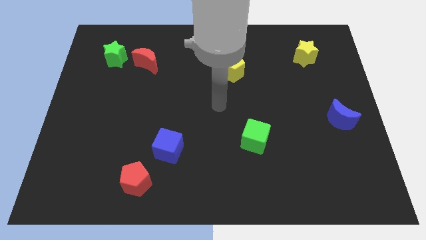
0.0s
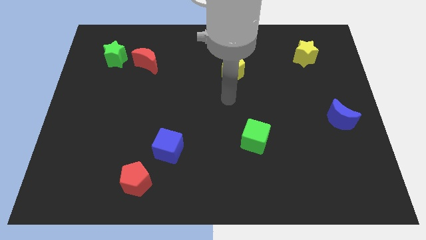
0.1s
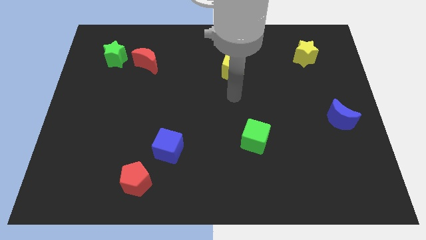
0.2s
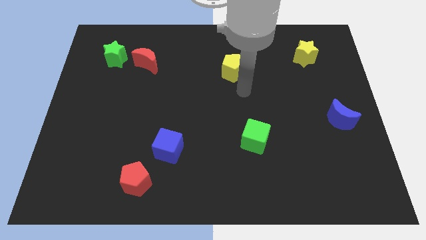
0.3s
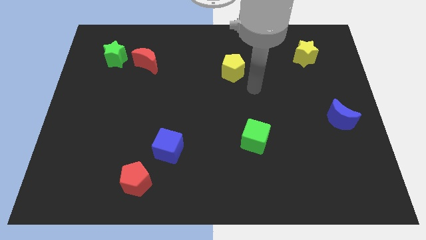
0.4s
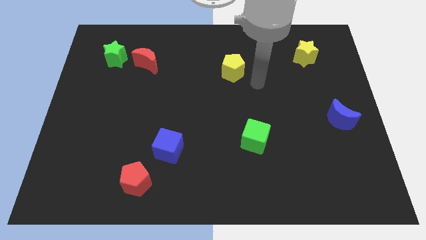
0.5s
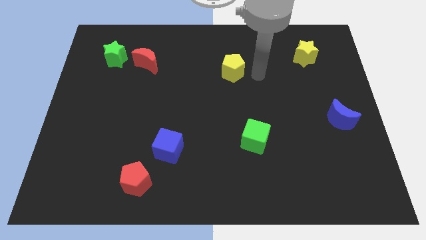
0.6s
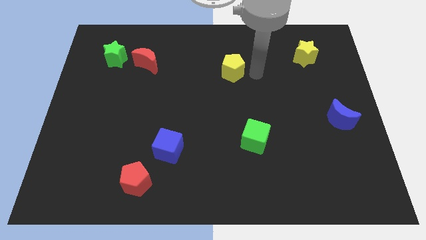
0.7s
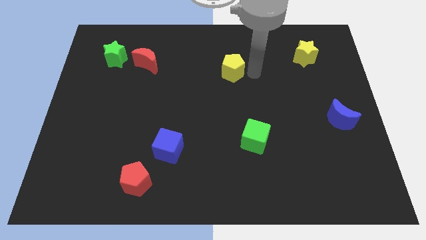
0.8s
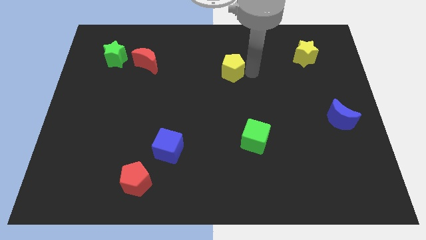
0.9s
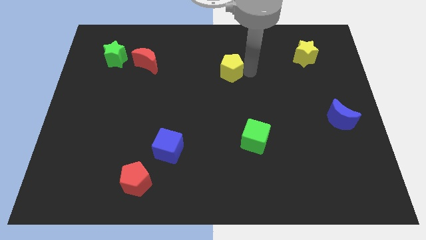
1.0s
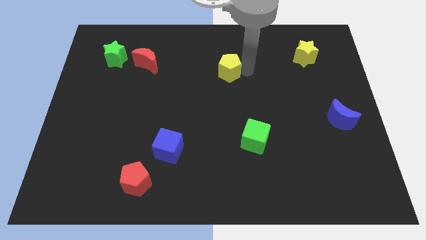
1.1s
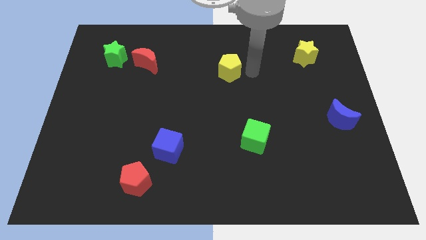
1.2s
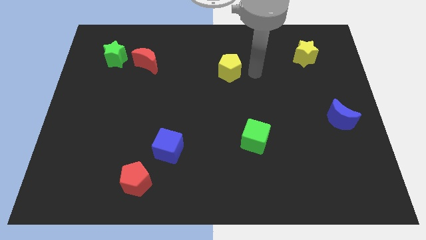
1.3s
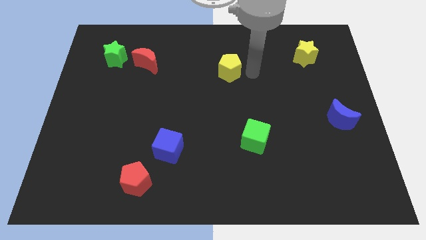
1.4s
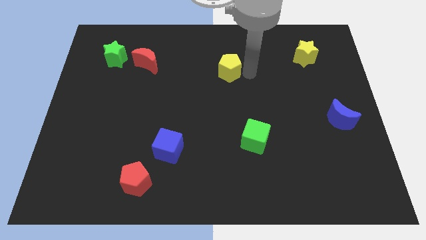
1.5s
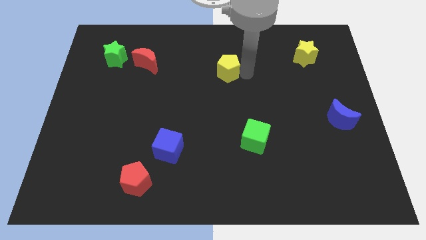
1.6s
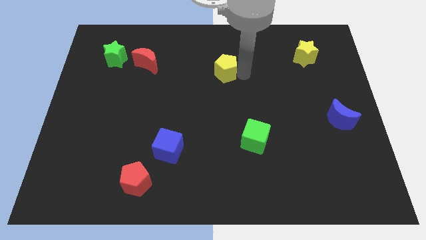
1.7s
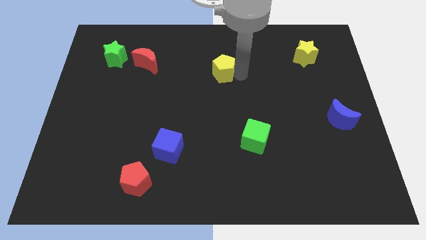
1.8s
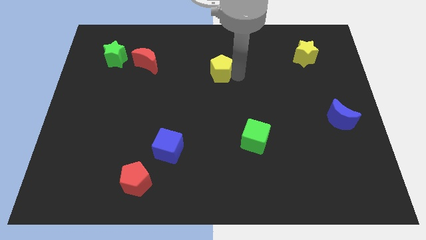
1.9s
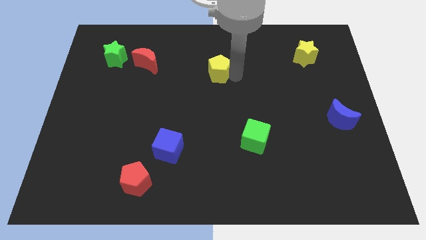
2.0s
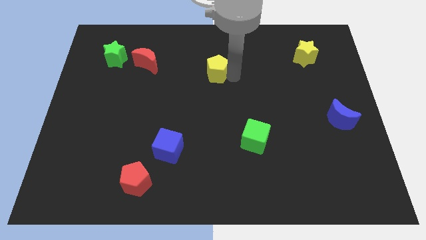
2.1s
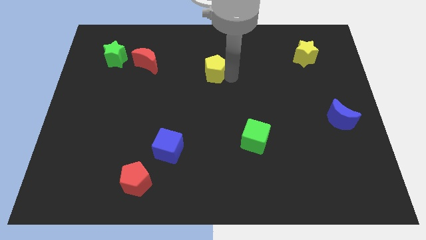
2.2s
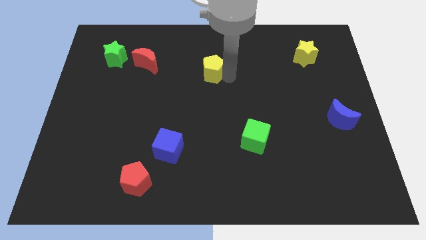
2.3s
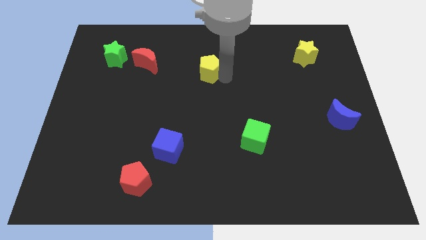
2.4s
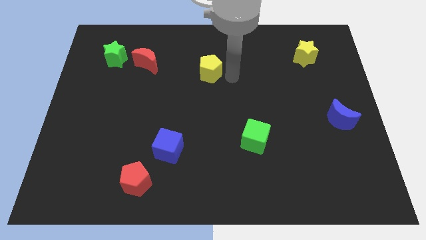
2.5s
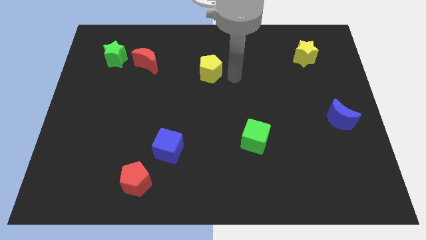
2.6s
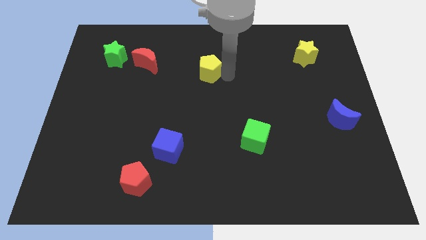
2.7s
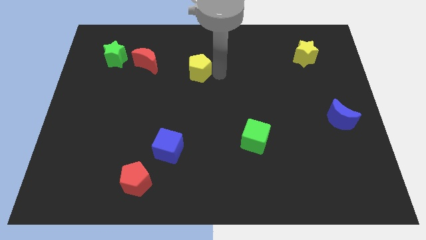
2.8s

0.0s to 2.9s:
slide the yellow pentagon to the left a little bit

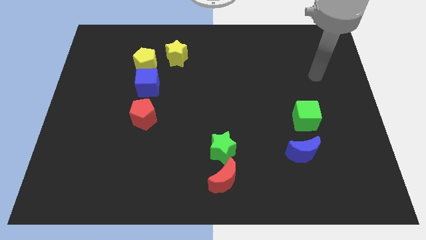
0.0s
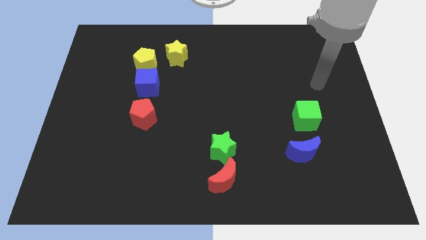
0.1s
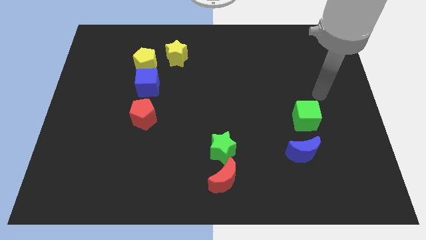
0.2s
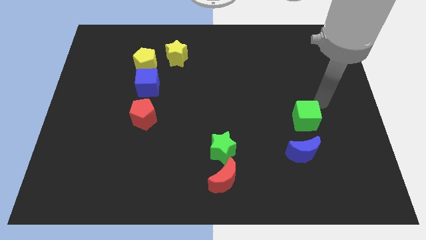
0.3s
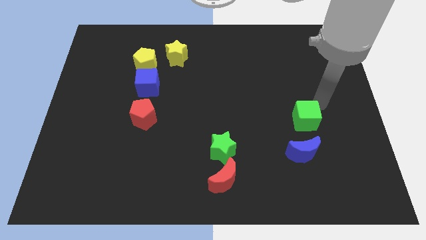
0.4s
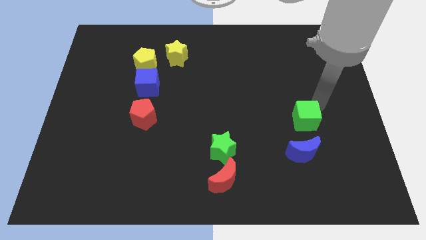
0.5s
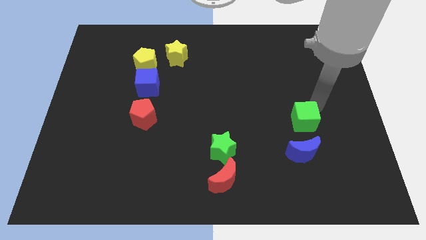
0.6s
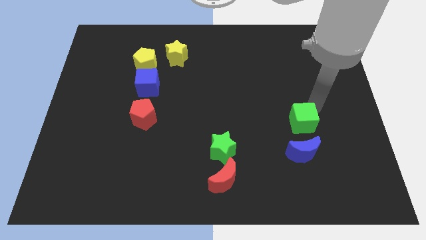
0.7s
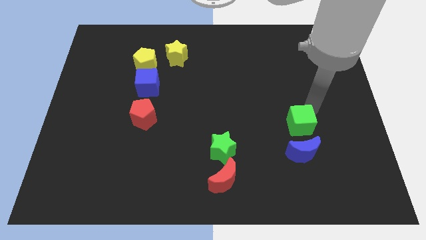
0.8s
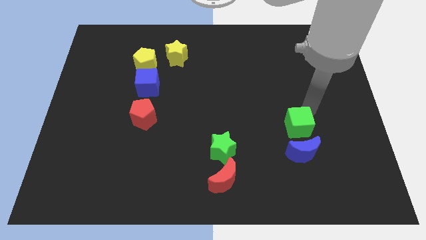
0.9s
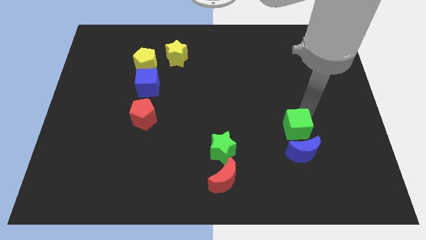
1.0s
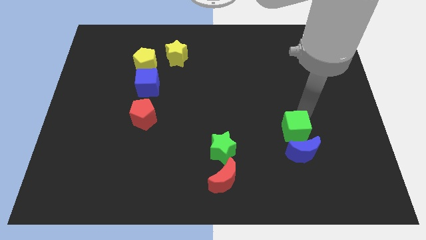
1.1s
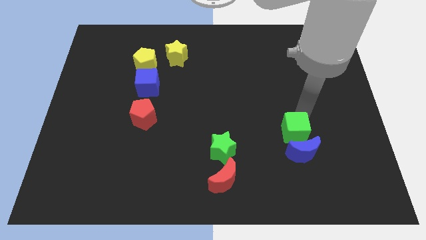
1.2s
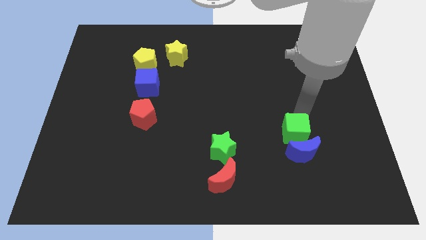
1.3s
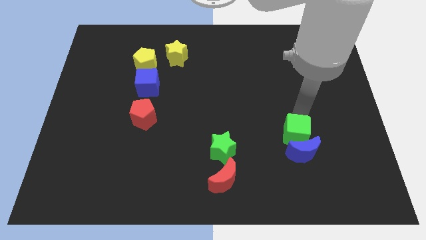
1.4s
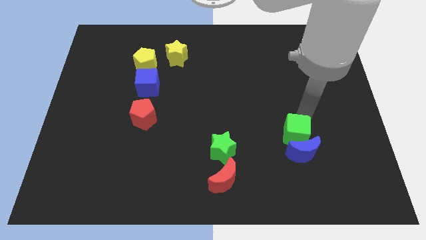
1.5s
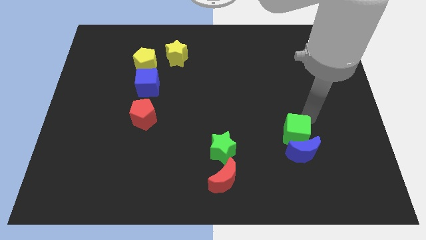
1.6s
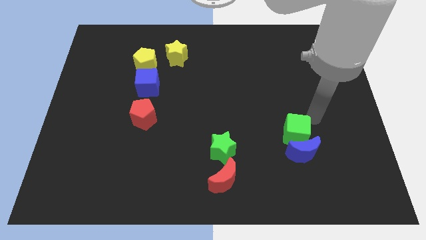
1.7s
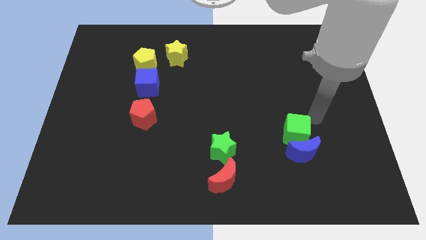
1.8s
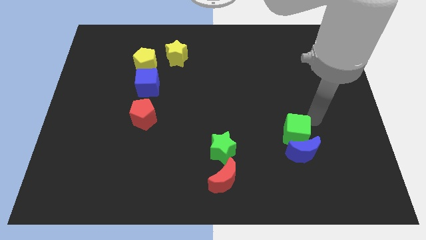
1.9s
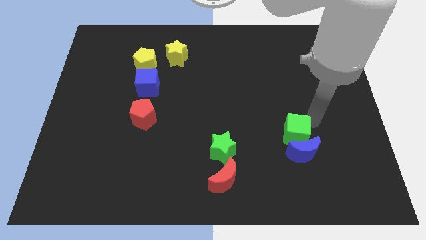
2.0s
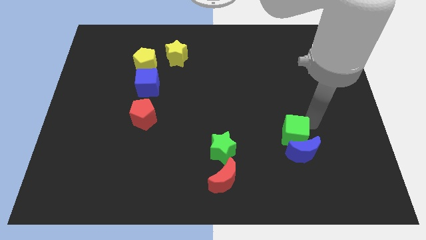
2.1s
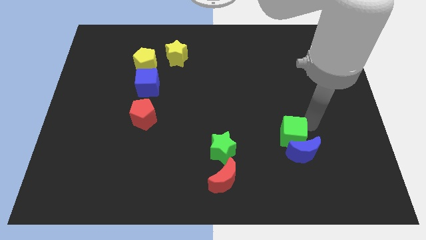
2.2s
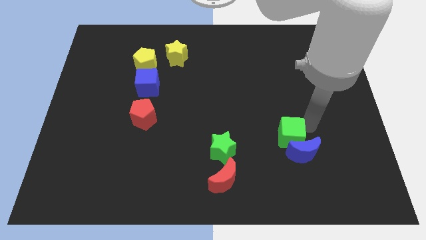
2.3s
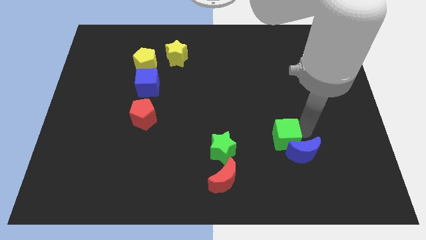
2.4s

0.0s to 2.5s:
slightly move the green cube diagonally downwards and to the left

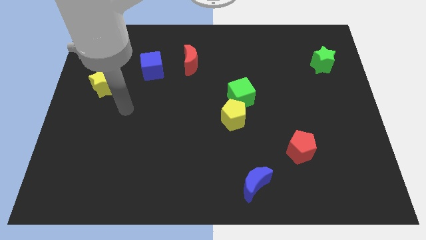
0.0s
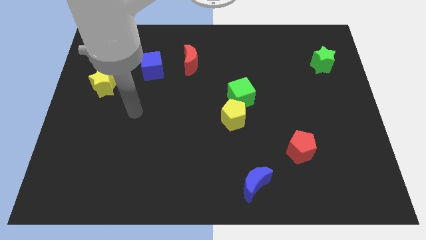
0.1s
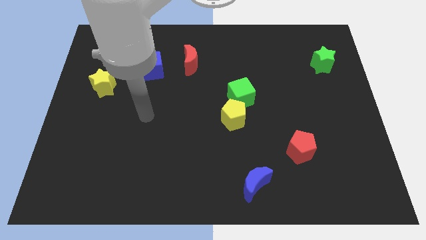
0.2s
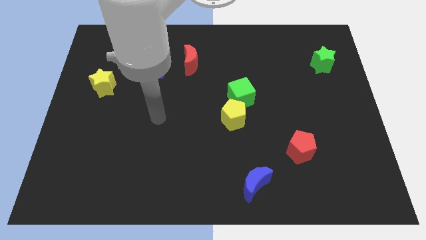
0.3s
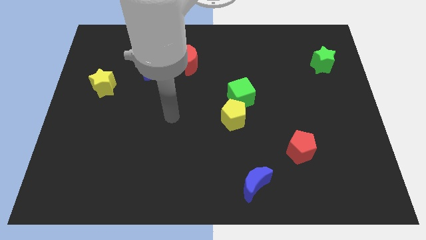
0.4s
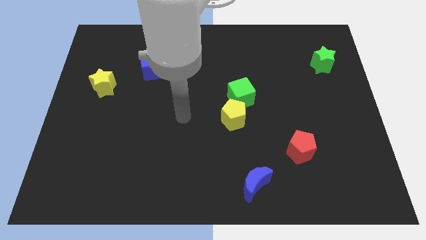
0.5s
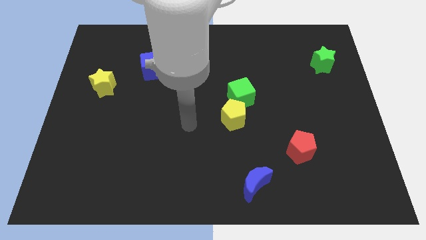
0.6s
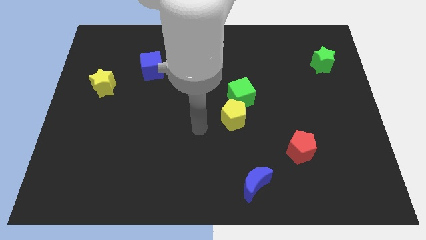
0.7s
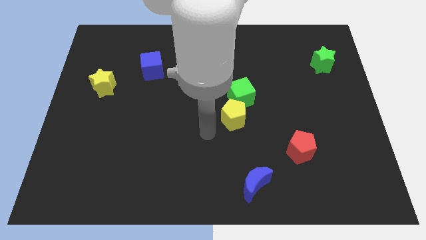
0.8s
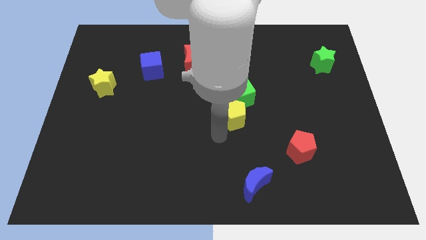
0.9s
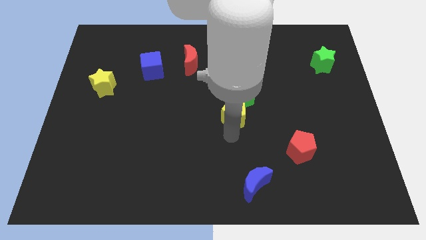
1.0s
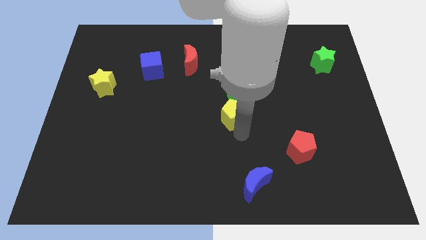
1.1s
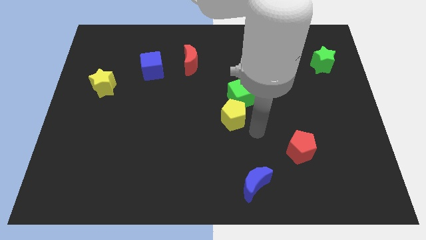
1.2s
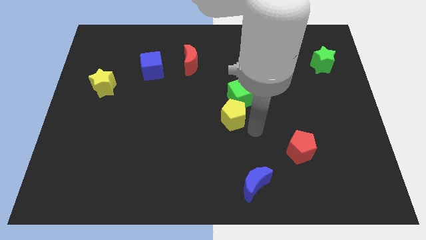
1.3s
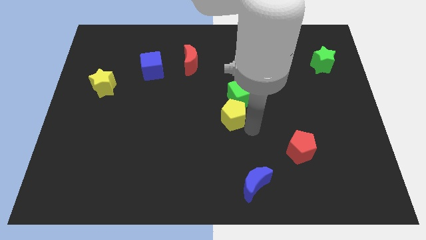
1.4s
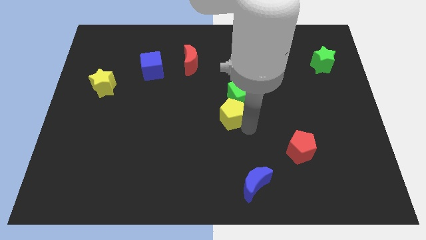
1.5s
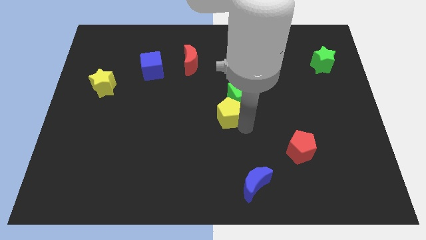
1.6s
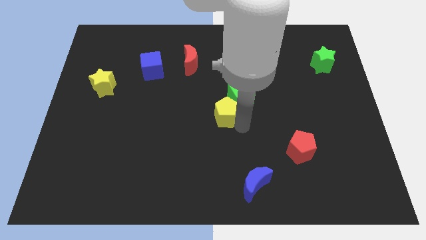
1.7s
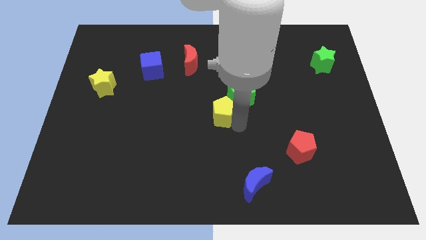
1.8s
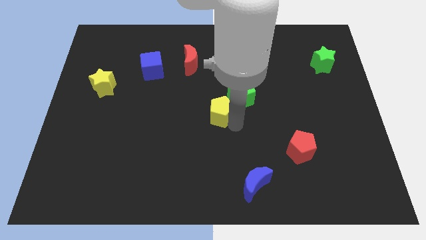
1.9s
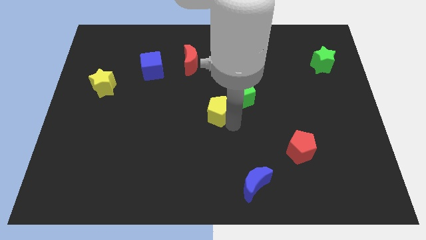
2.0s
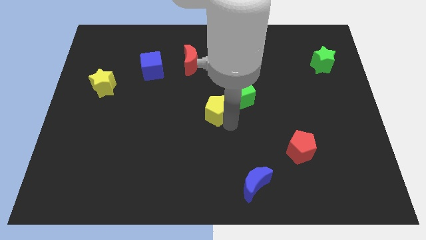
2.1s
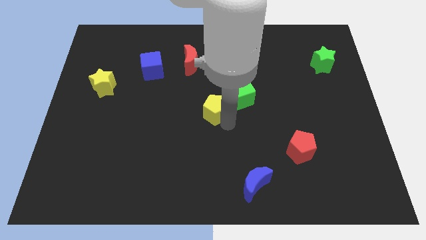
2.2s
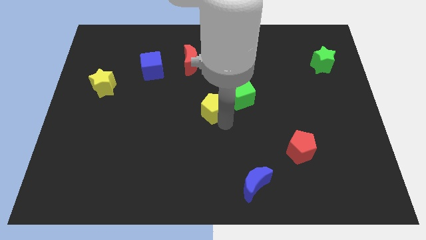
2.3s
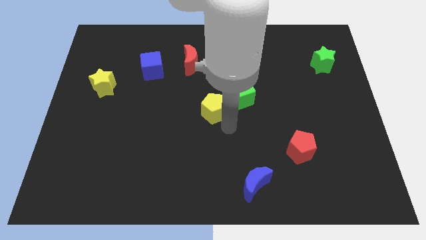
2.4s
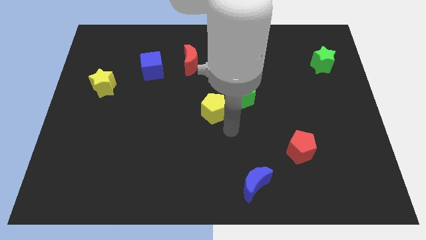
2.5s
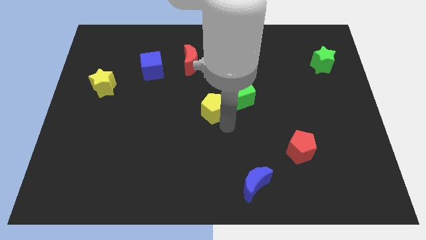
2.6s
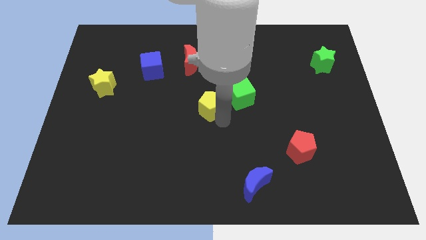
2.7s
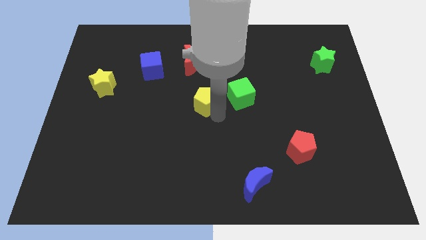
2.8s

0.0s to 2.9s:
move the yellow pentagon up and to the left a little
